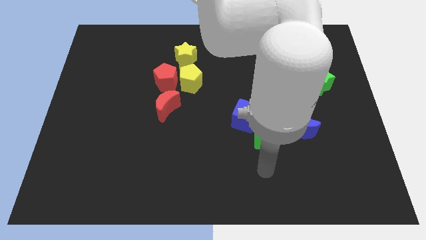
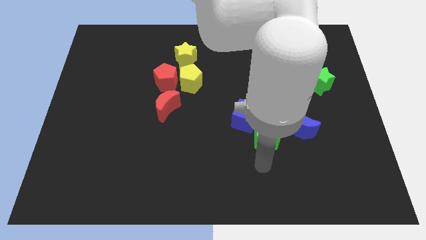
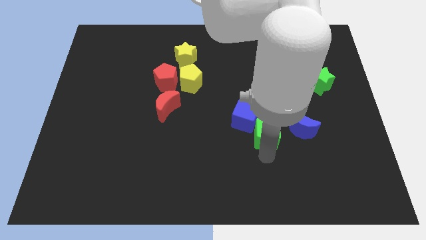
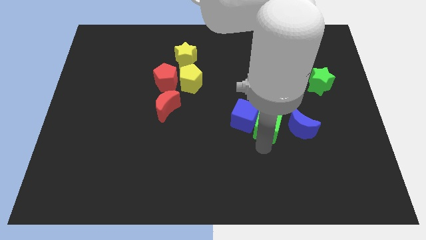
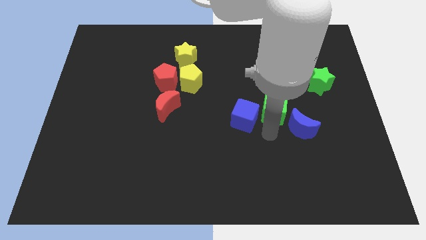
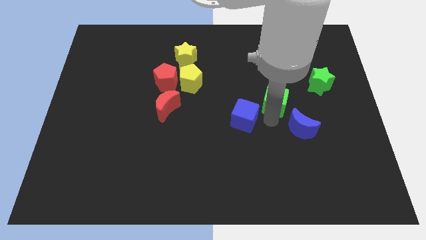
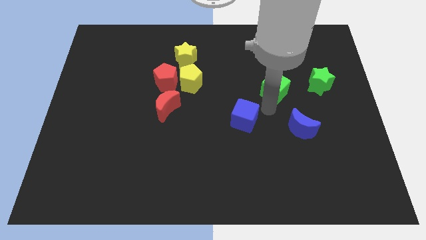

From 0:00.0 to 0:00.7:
move the blue cube away from the green cube

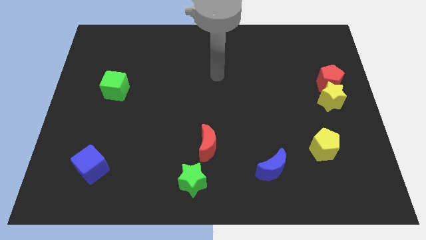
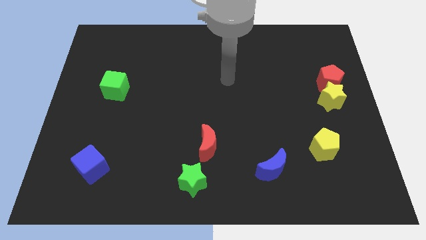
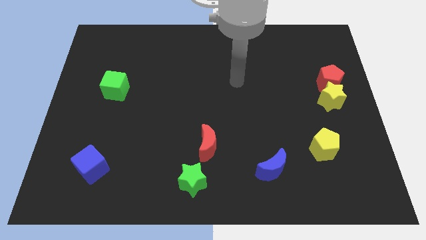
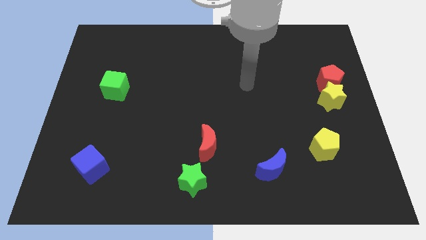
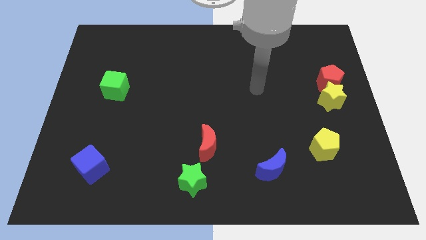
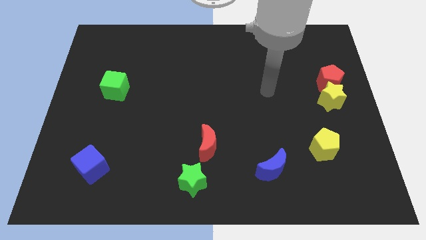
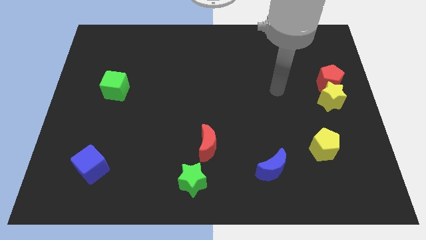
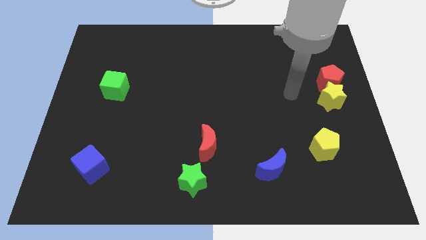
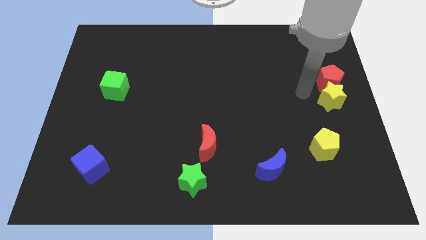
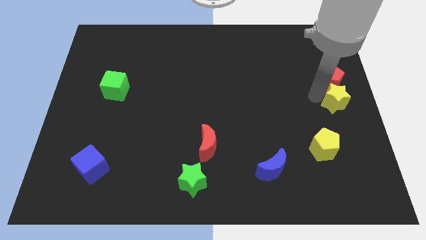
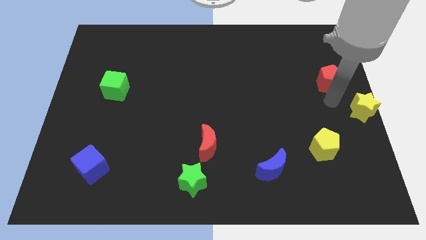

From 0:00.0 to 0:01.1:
separate the red pentagon from the yellow star

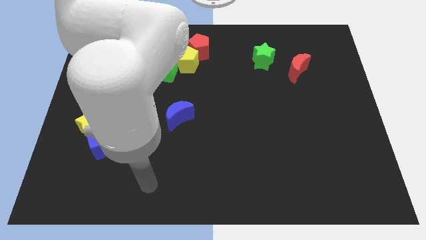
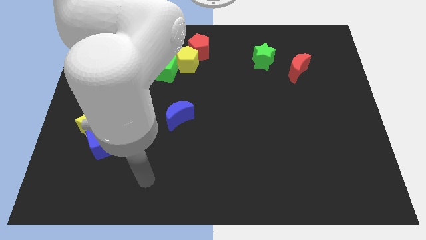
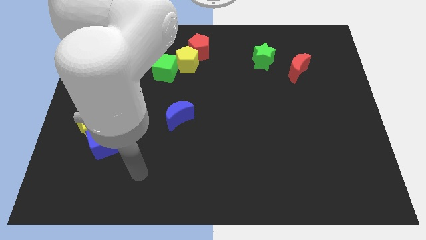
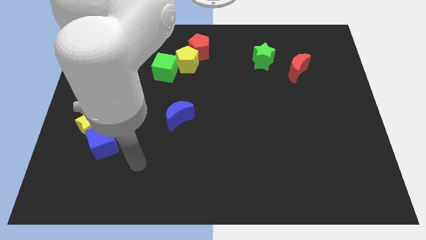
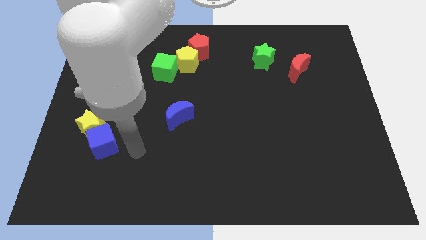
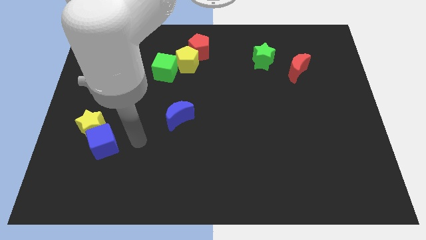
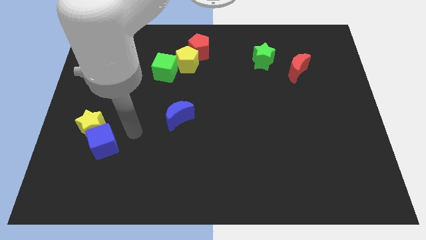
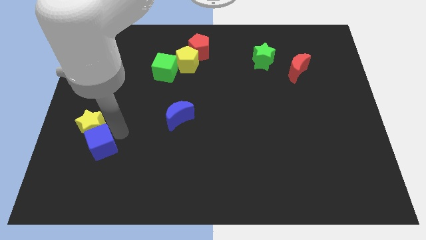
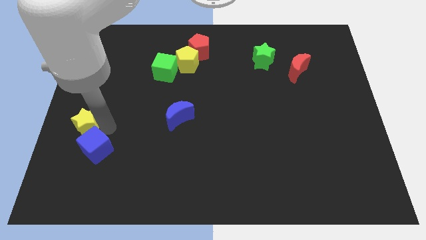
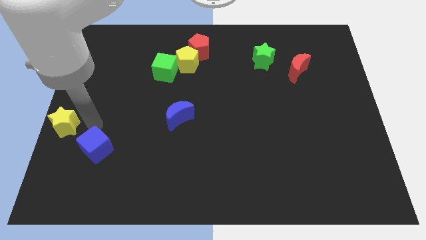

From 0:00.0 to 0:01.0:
pull the blue cube apart from the yellow star

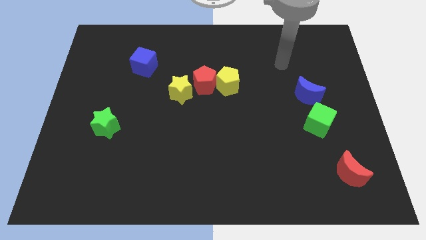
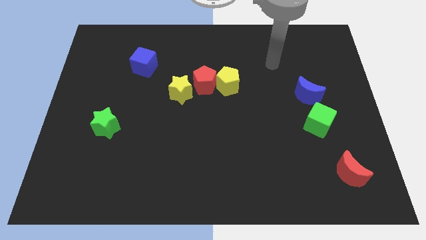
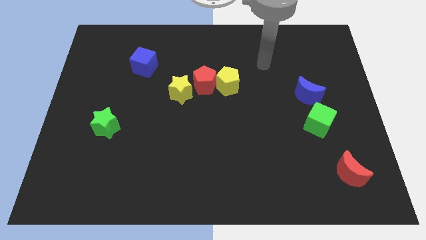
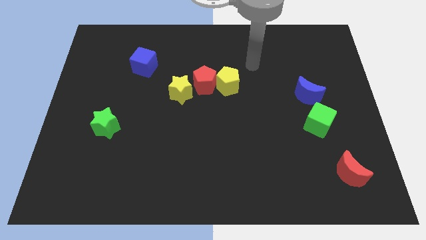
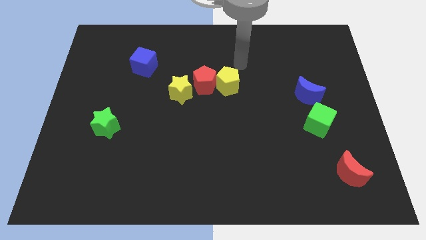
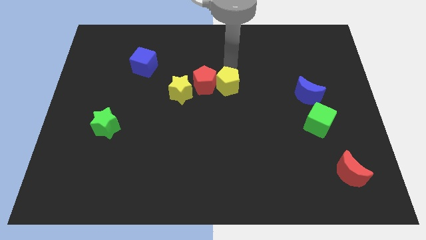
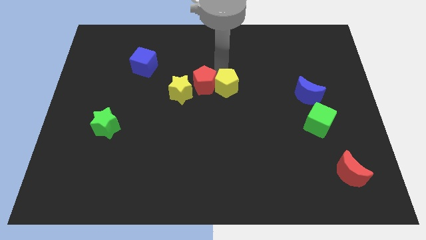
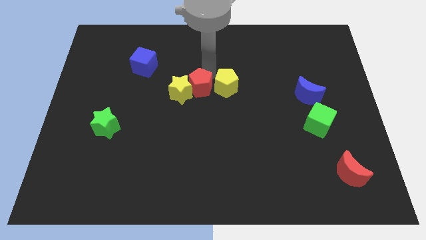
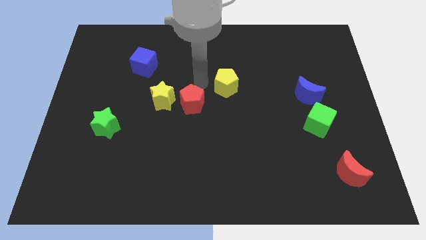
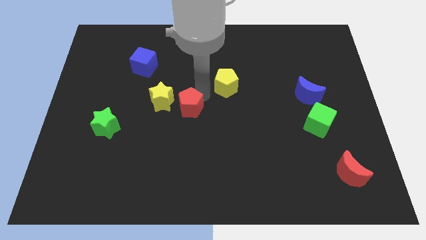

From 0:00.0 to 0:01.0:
separate the yellow pentagon from the red pentagon

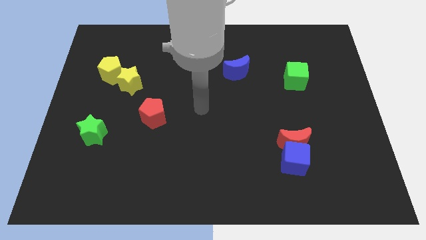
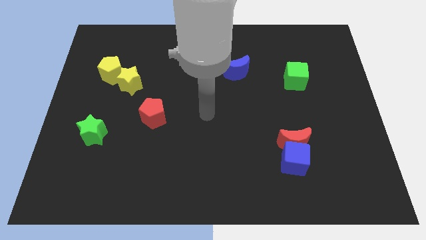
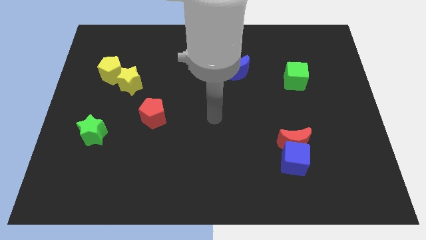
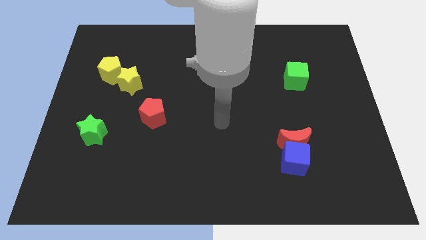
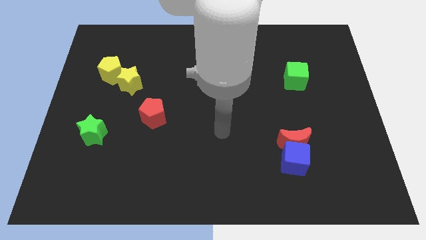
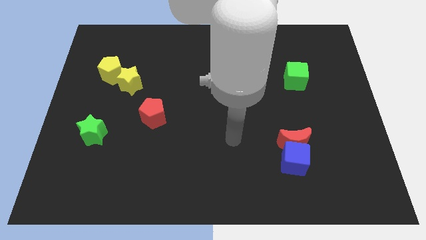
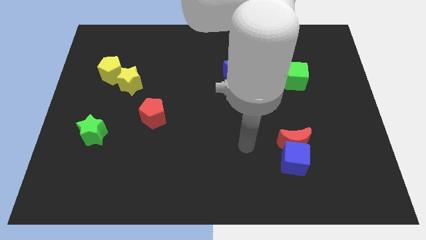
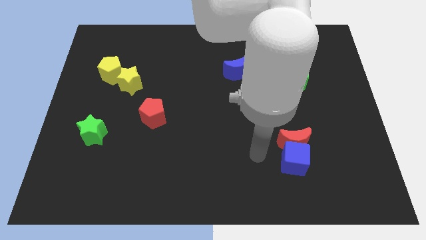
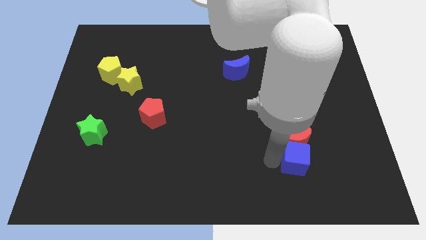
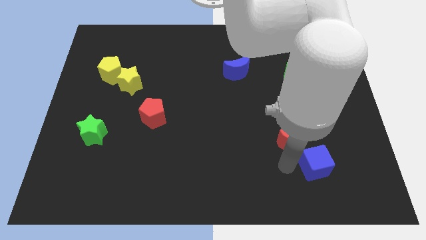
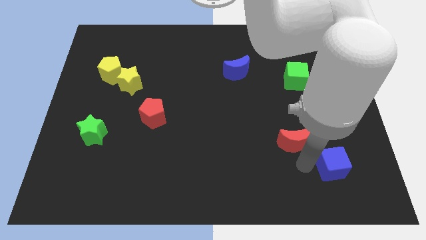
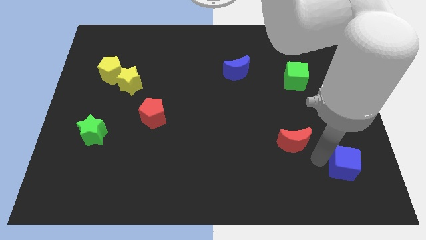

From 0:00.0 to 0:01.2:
pull the red moon apart from the blue cube

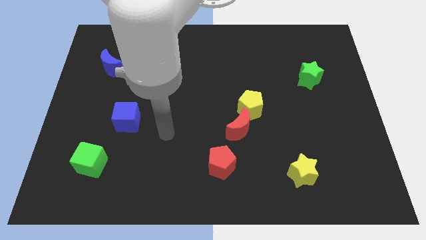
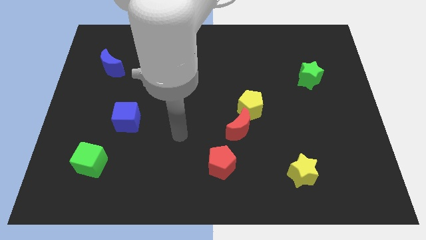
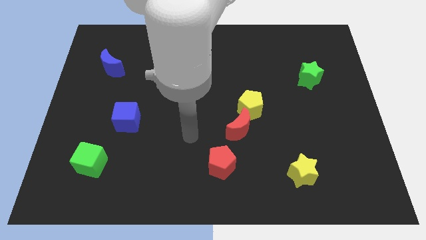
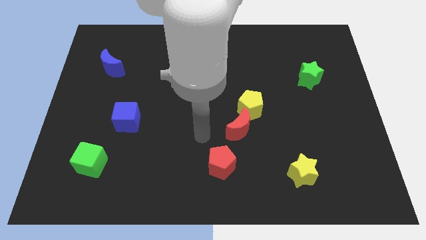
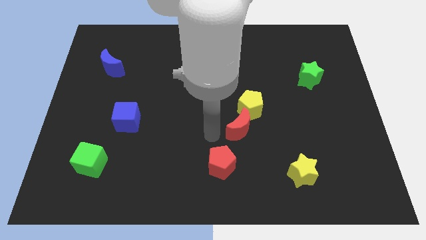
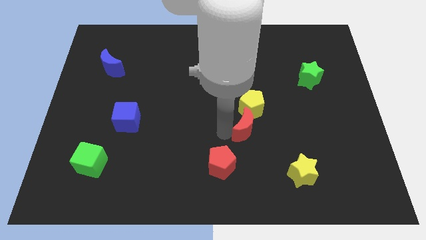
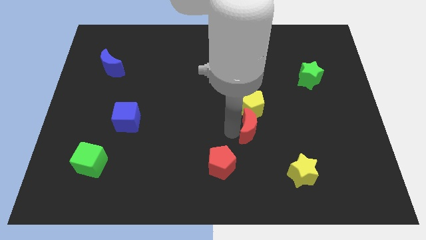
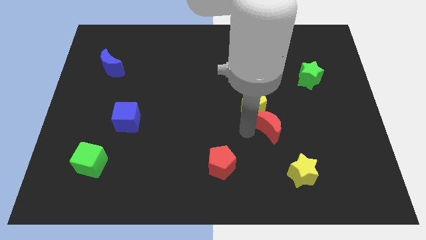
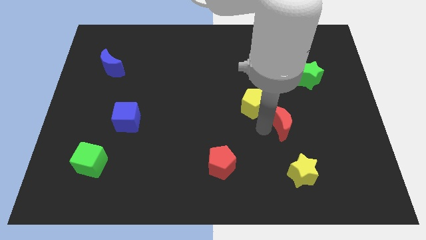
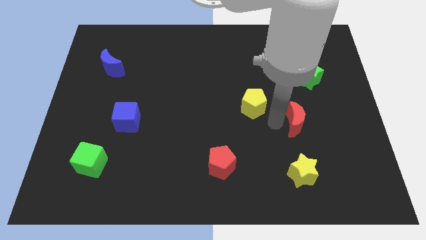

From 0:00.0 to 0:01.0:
pull the yellow pentagon apart from the red moon

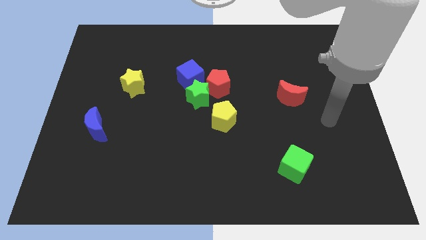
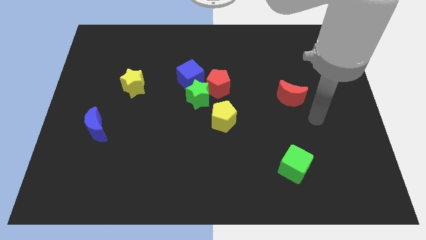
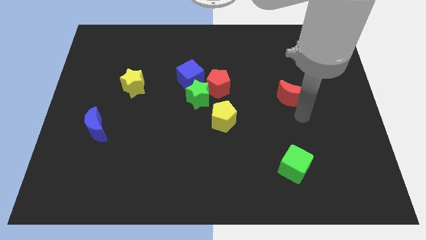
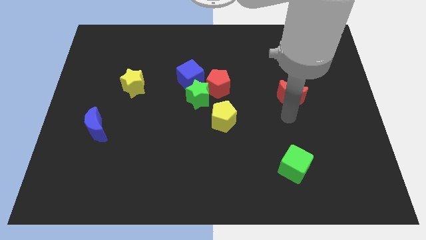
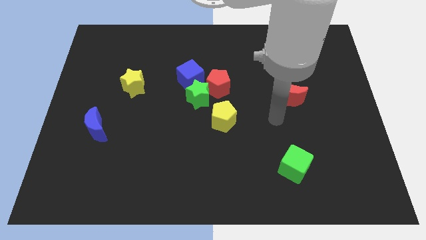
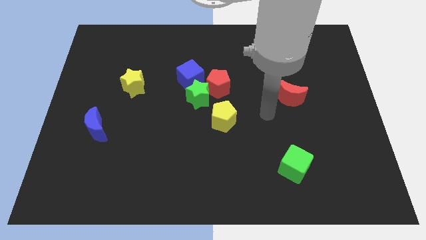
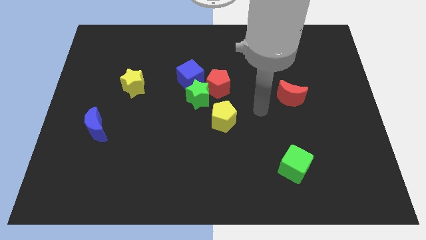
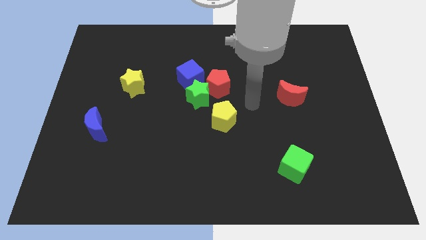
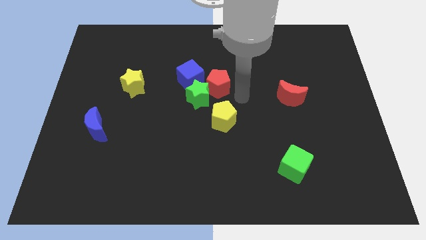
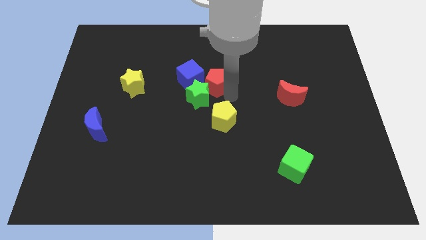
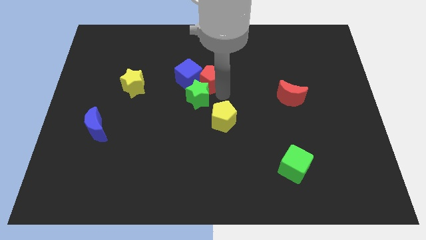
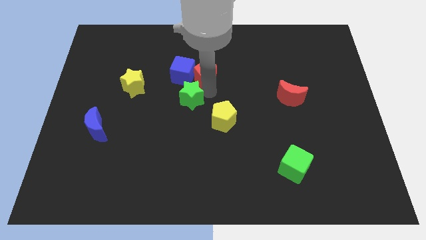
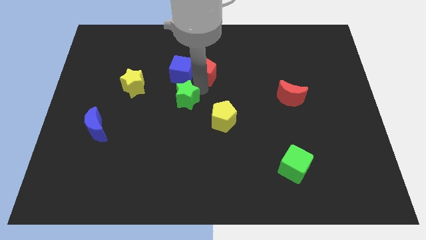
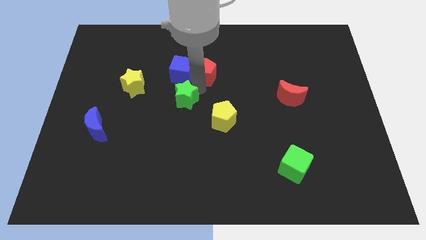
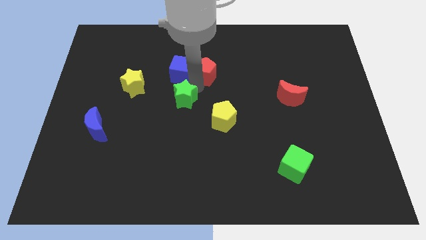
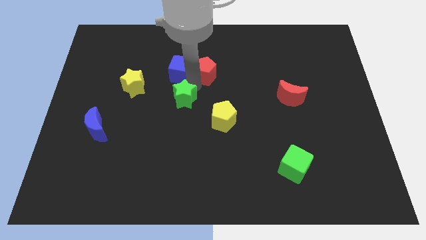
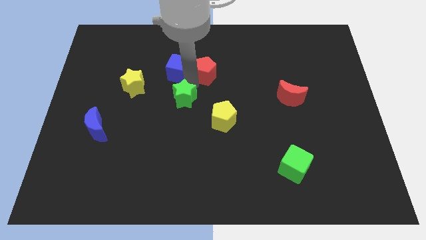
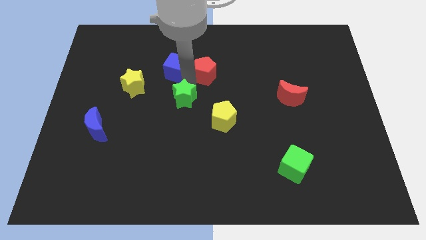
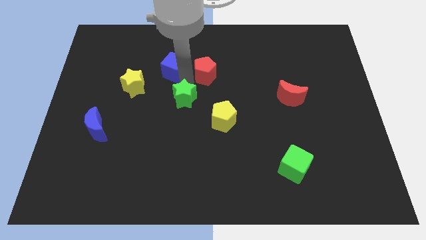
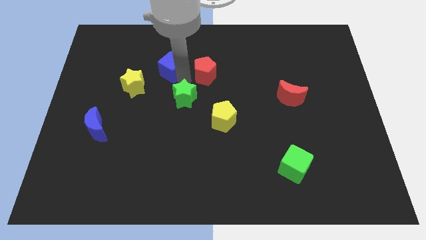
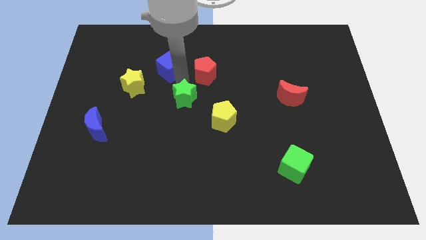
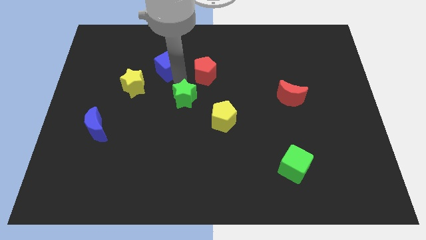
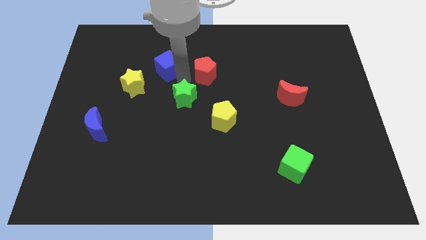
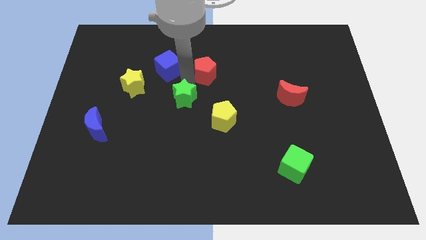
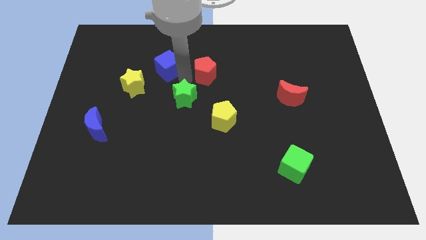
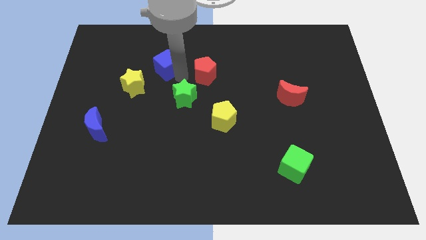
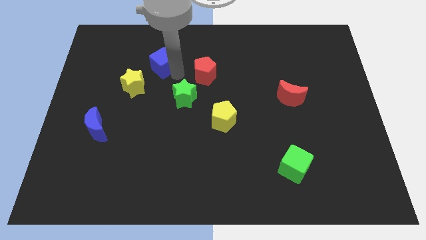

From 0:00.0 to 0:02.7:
pull the blue cube apart from the green star and red pentagon

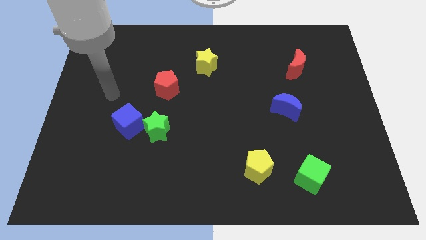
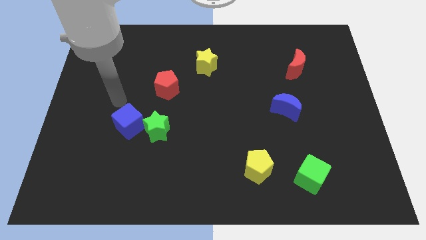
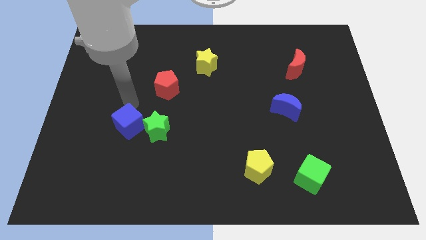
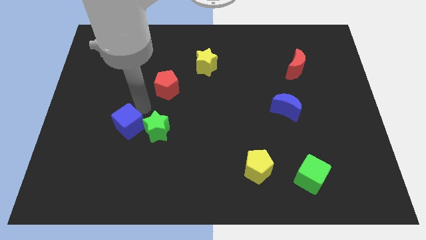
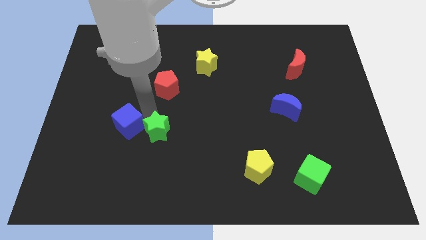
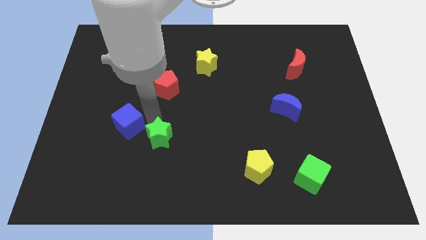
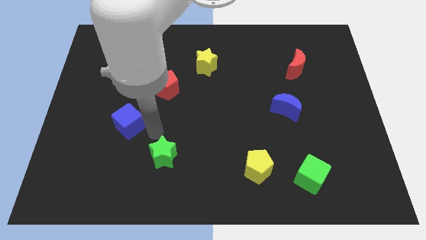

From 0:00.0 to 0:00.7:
pull the blue cube apart from the green star
